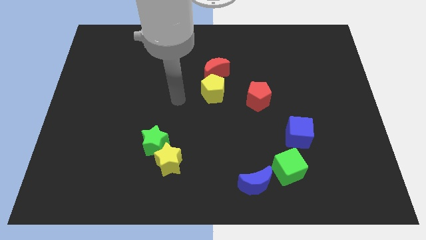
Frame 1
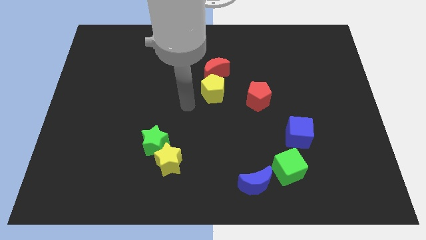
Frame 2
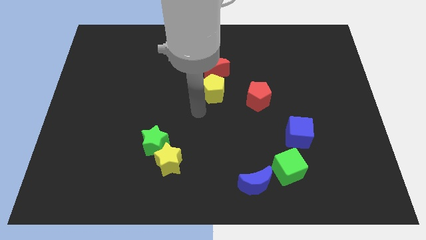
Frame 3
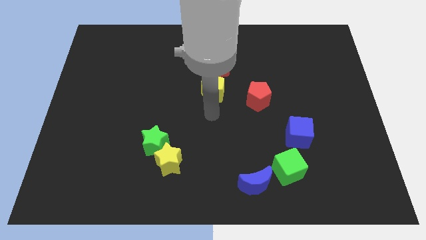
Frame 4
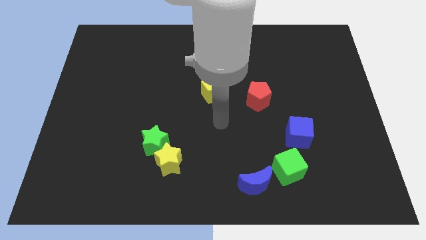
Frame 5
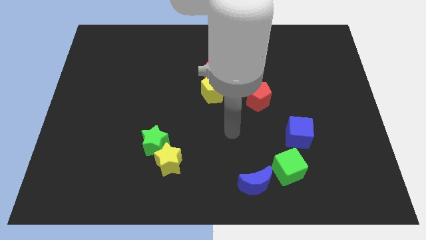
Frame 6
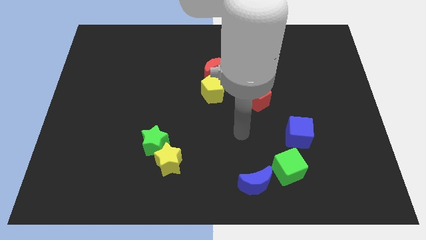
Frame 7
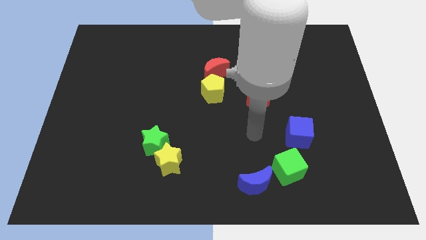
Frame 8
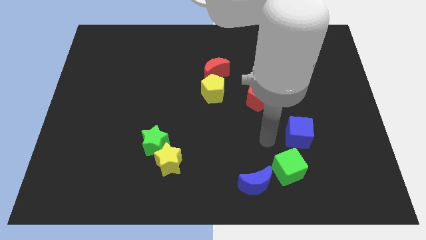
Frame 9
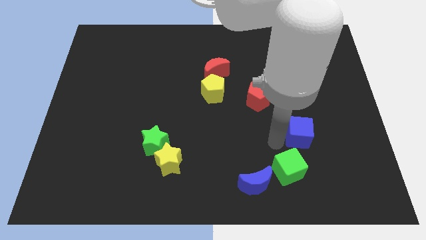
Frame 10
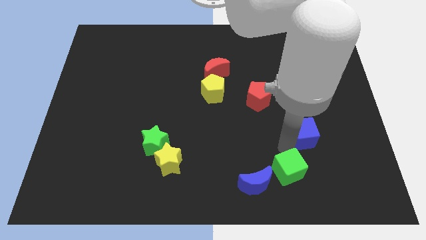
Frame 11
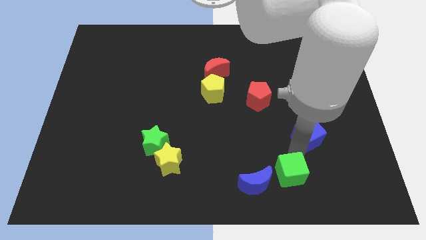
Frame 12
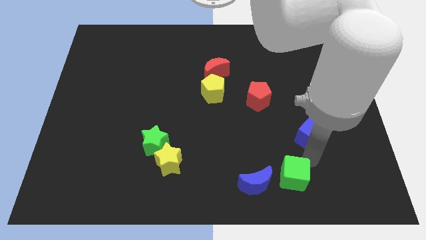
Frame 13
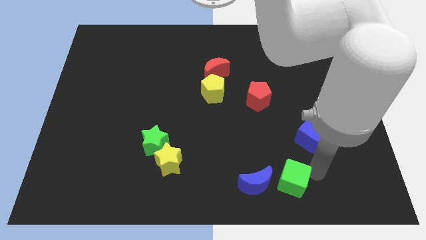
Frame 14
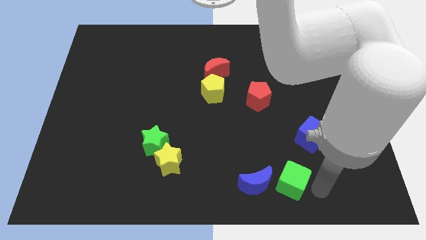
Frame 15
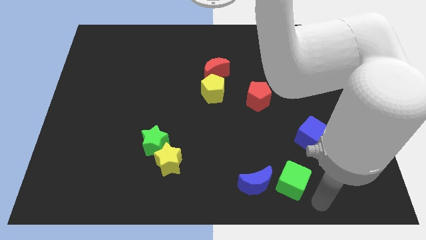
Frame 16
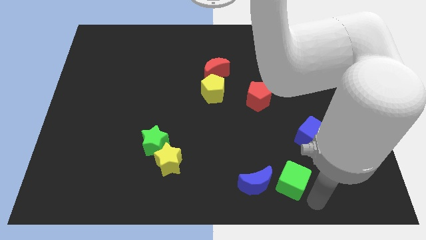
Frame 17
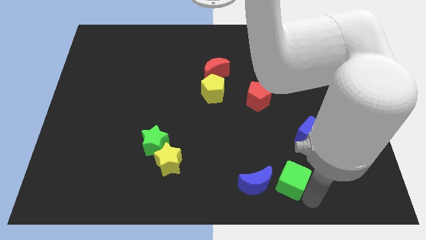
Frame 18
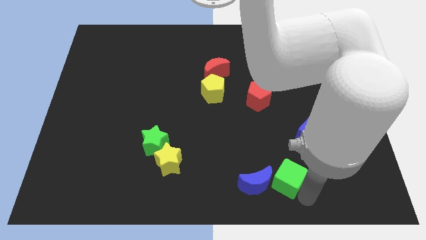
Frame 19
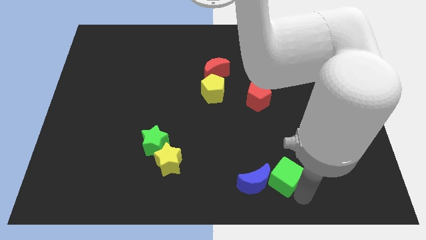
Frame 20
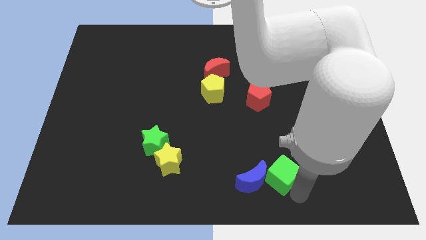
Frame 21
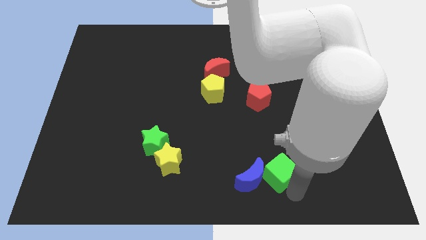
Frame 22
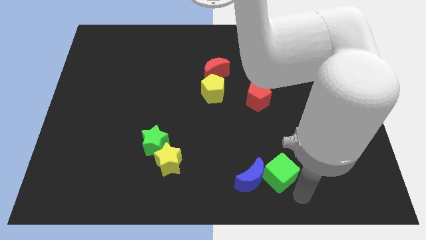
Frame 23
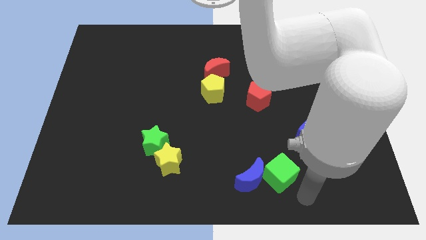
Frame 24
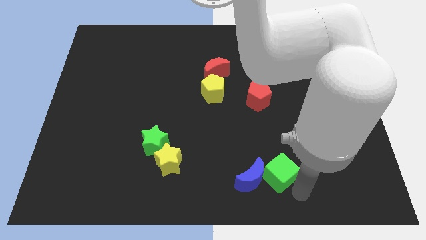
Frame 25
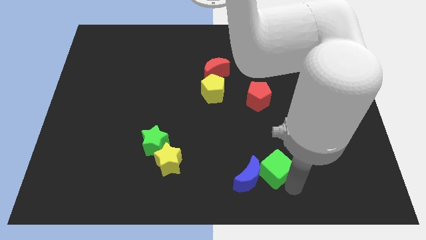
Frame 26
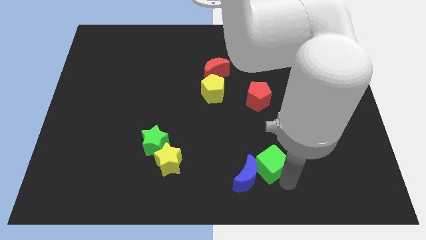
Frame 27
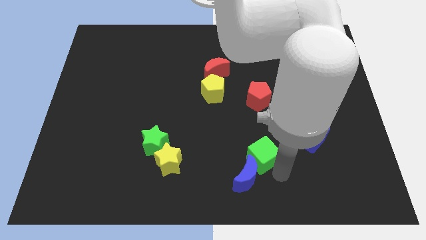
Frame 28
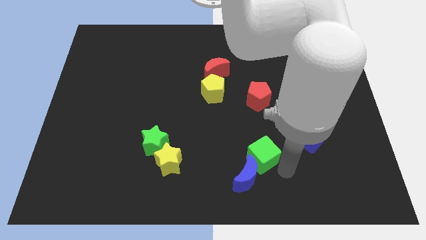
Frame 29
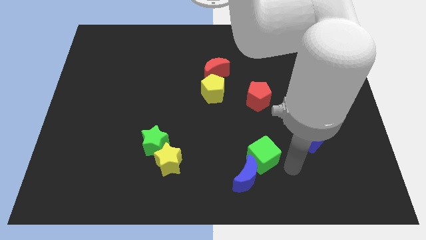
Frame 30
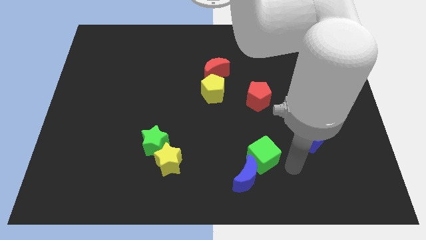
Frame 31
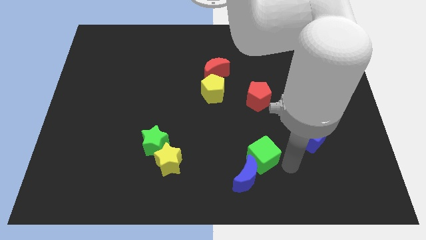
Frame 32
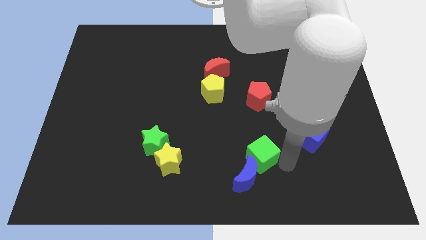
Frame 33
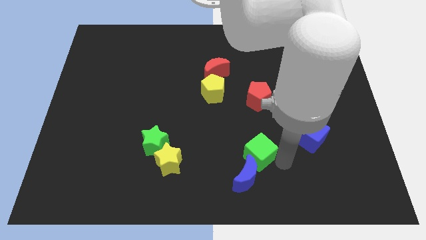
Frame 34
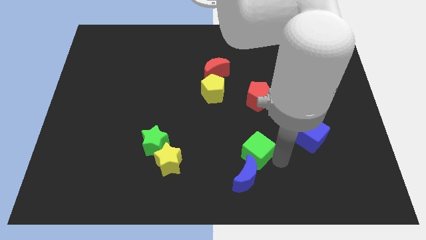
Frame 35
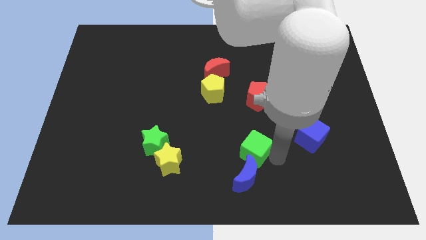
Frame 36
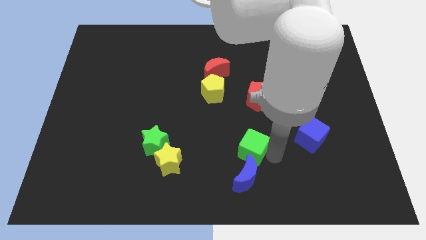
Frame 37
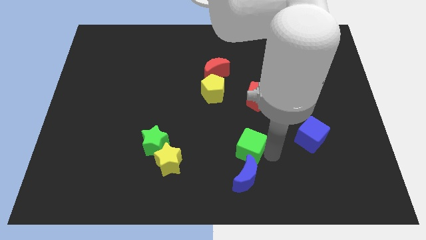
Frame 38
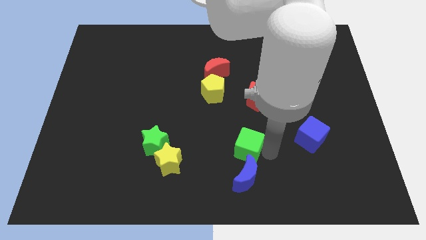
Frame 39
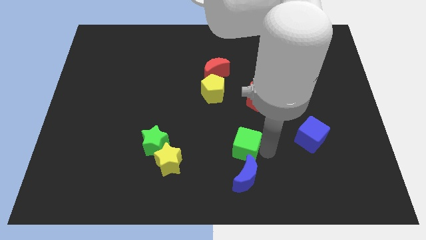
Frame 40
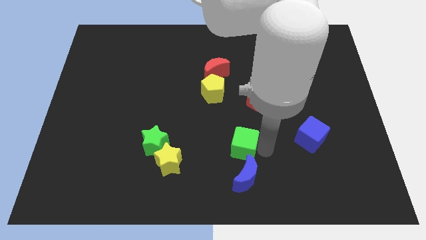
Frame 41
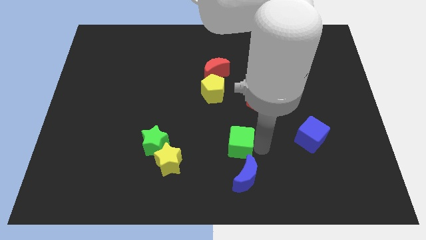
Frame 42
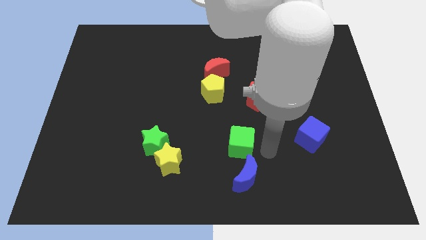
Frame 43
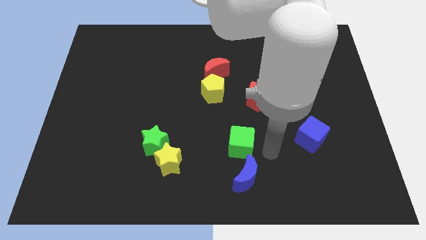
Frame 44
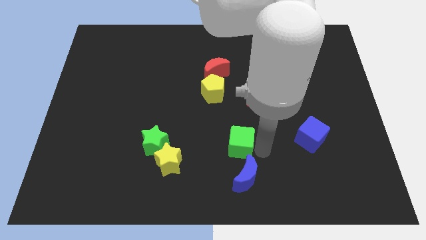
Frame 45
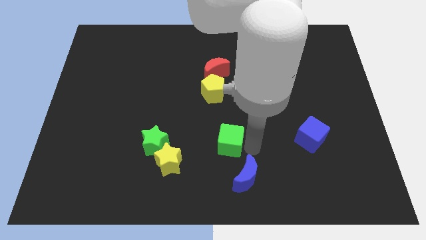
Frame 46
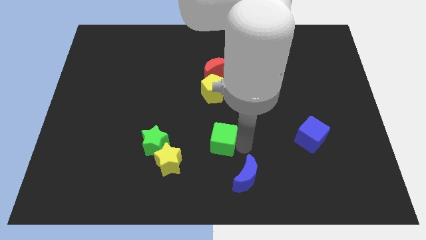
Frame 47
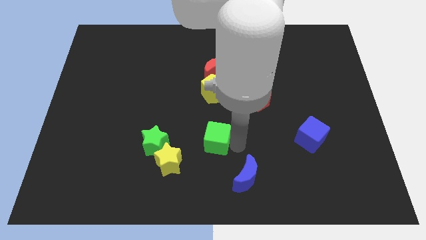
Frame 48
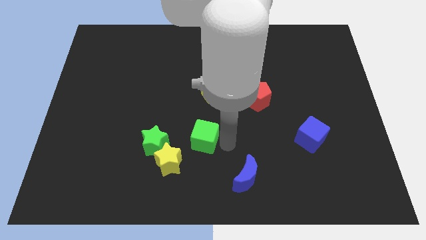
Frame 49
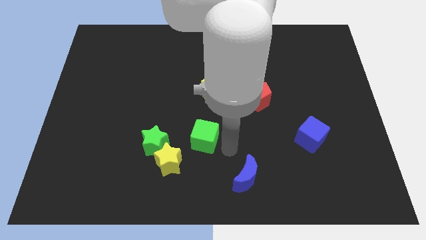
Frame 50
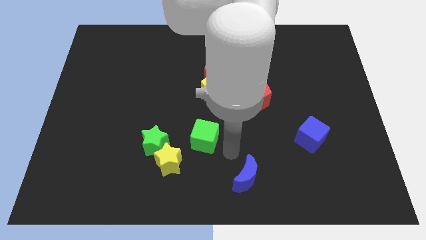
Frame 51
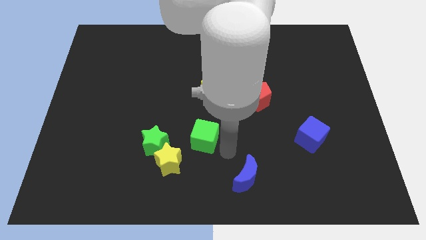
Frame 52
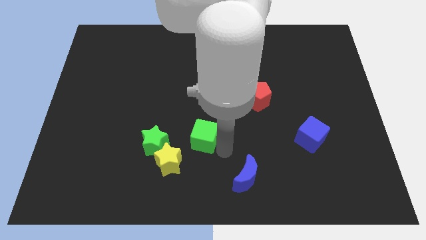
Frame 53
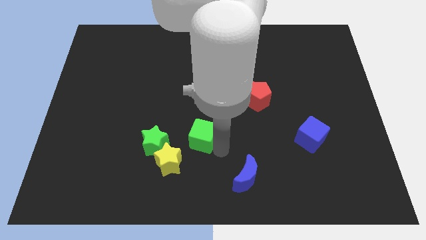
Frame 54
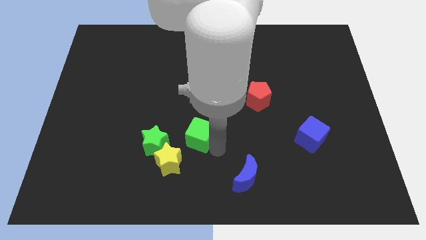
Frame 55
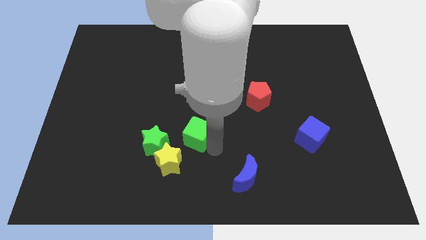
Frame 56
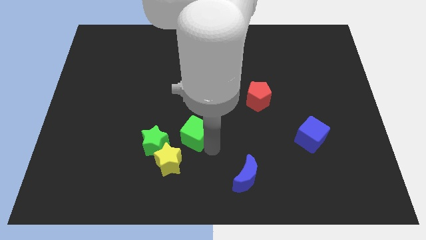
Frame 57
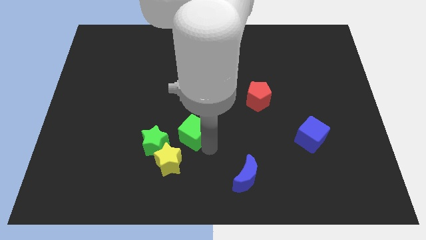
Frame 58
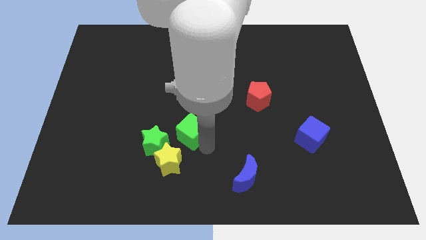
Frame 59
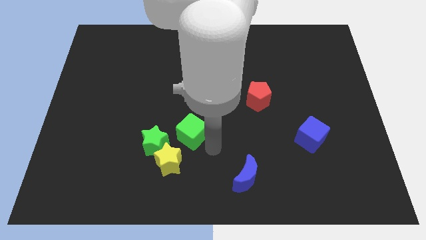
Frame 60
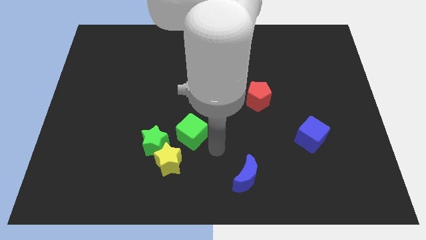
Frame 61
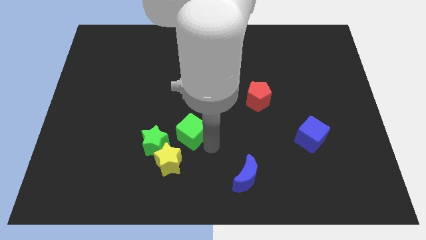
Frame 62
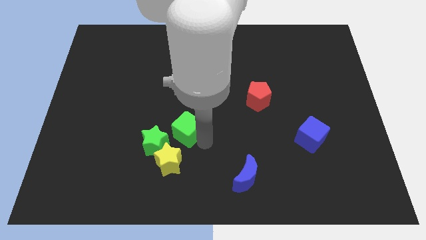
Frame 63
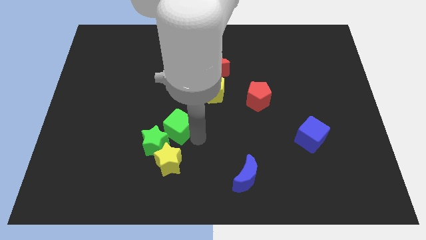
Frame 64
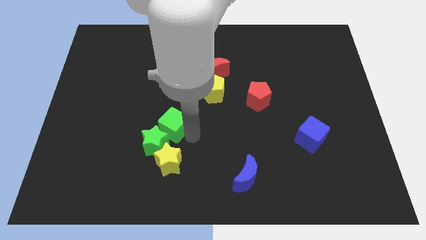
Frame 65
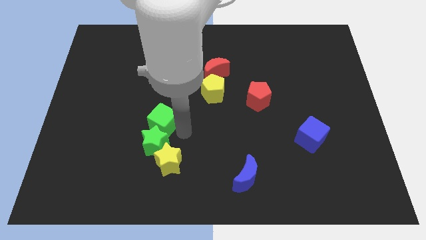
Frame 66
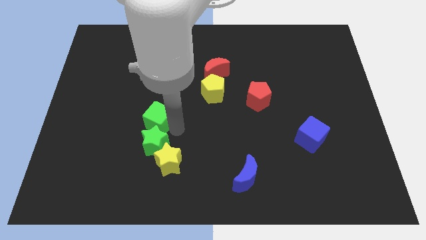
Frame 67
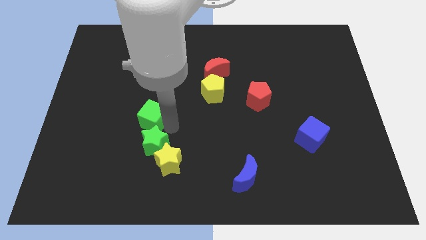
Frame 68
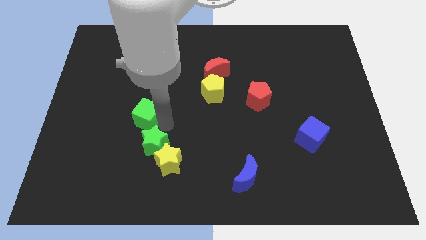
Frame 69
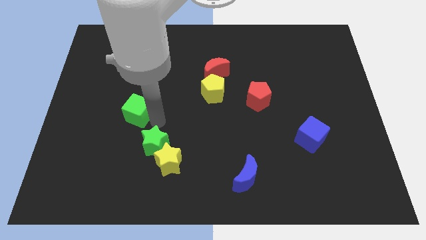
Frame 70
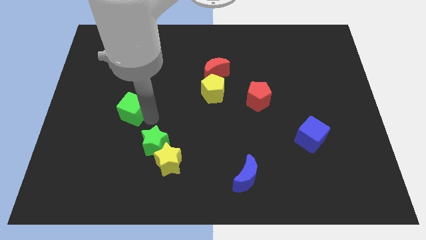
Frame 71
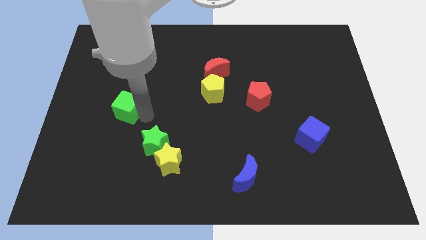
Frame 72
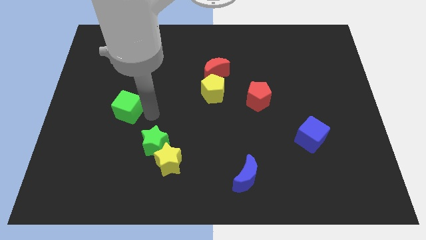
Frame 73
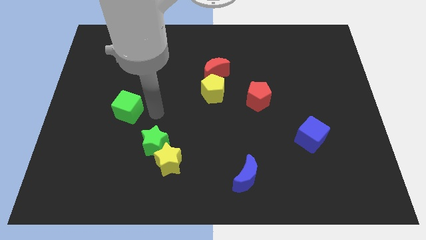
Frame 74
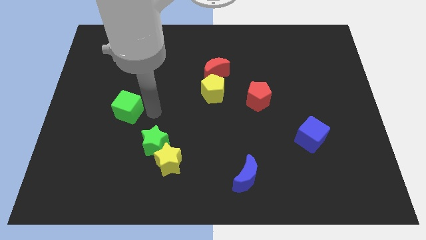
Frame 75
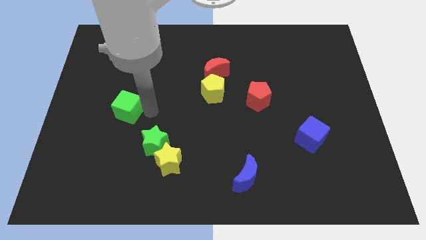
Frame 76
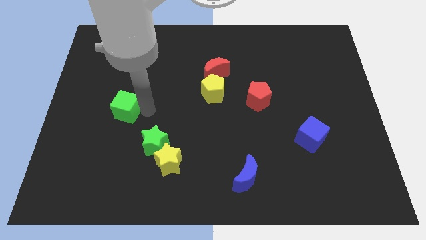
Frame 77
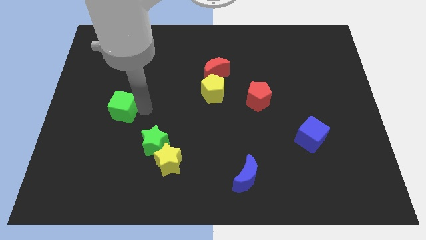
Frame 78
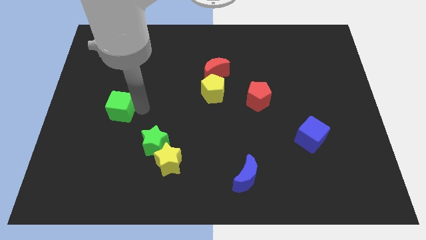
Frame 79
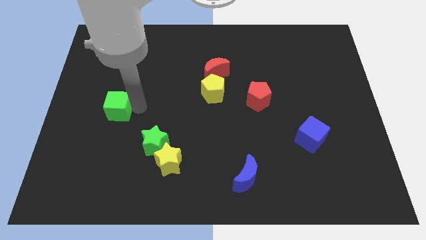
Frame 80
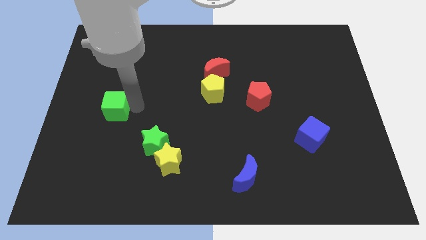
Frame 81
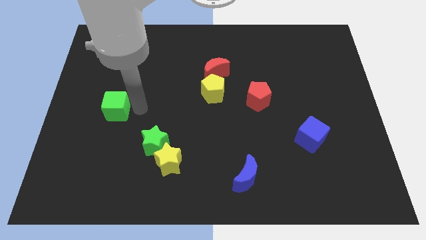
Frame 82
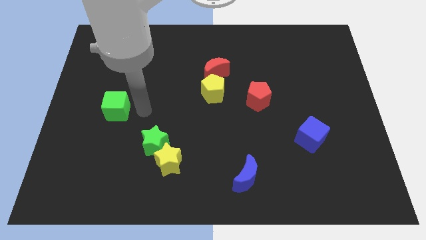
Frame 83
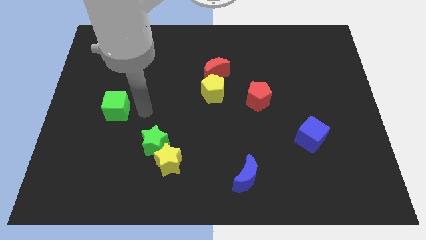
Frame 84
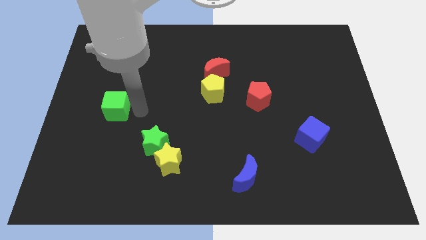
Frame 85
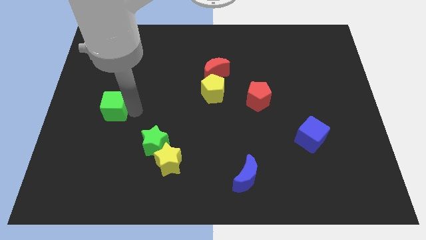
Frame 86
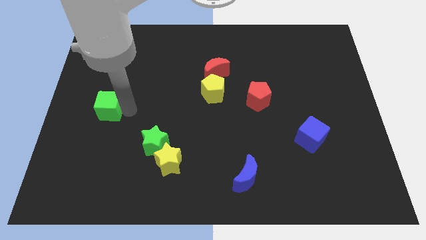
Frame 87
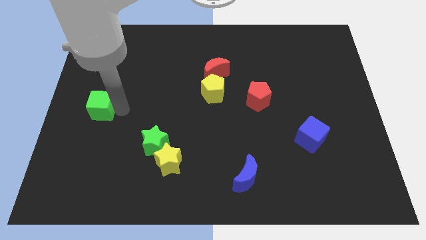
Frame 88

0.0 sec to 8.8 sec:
slide the green cube to the left side
